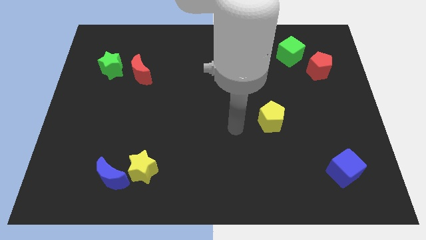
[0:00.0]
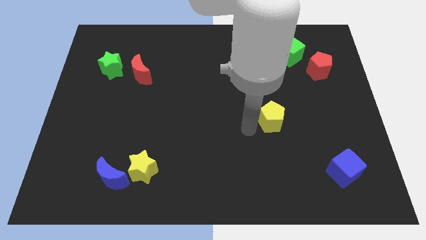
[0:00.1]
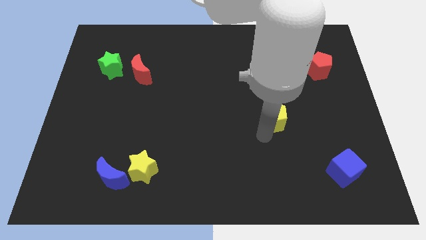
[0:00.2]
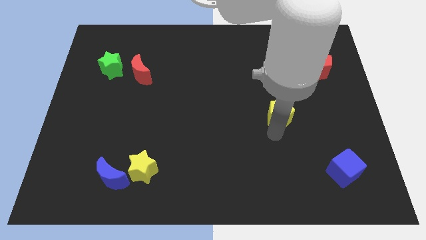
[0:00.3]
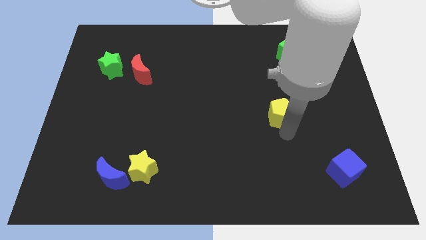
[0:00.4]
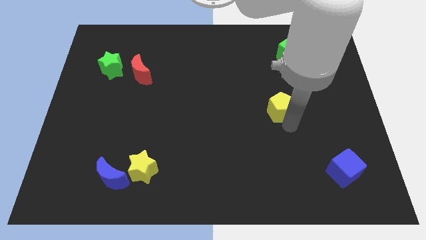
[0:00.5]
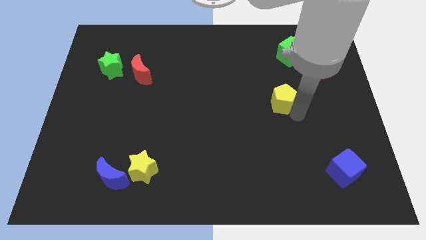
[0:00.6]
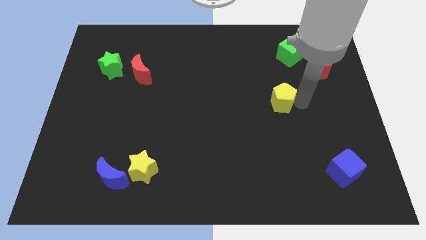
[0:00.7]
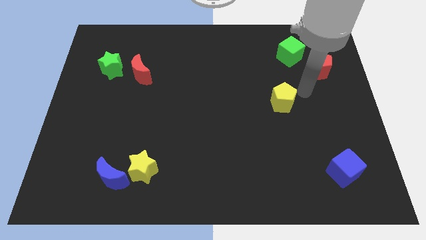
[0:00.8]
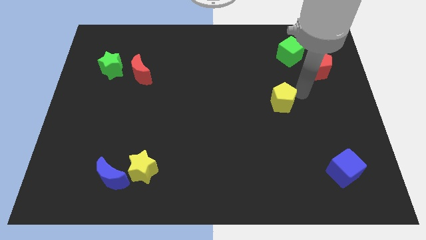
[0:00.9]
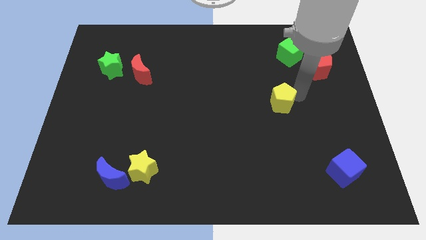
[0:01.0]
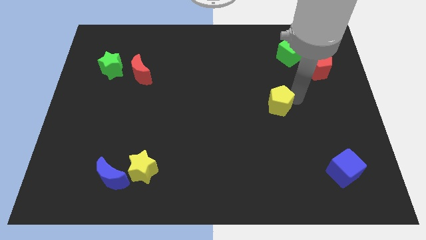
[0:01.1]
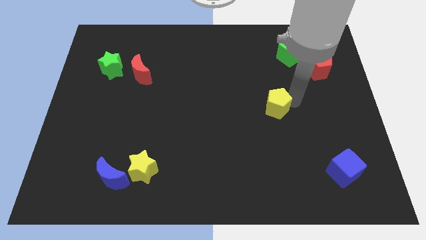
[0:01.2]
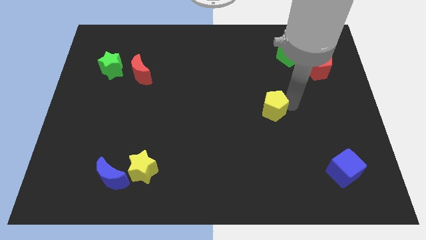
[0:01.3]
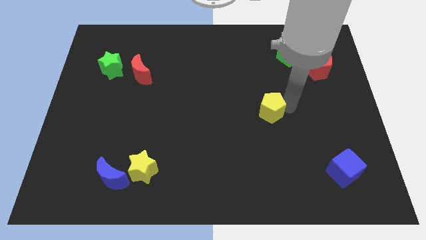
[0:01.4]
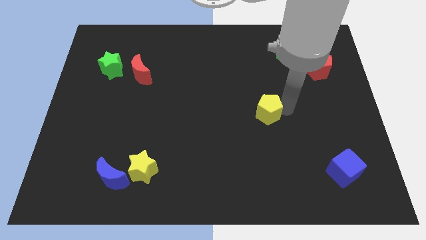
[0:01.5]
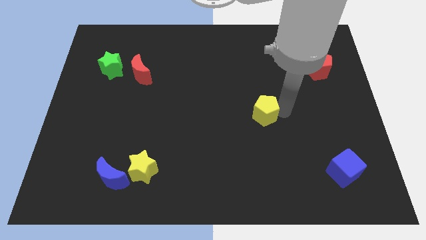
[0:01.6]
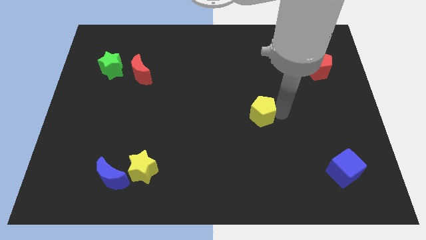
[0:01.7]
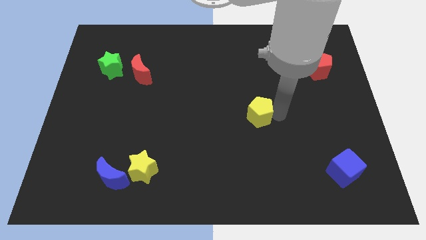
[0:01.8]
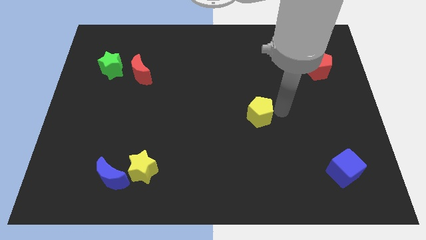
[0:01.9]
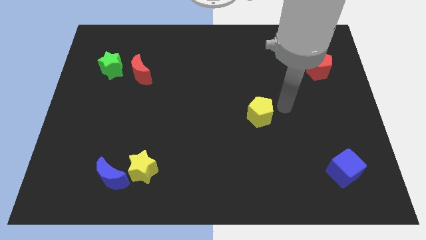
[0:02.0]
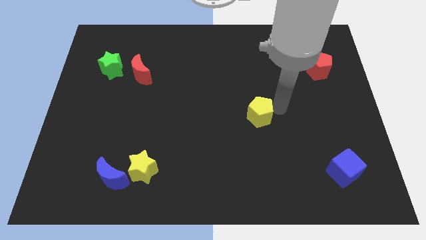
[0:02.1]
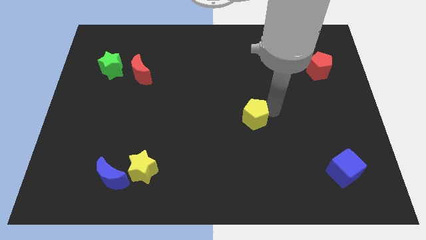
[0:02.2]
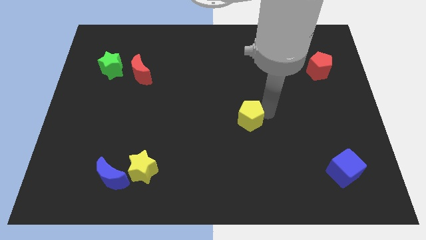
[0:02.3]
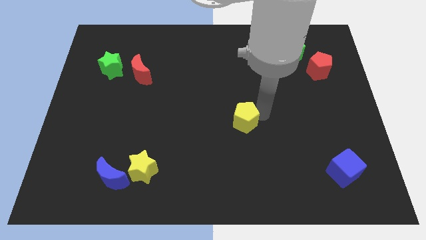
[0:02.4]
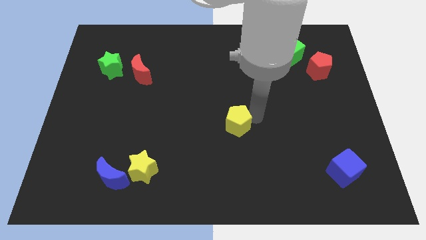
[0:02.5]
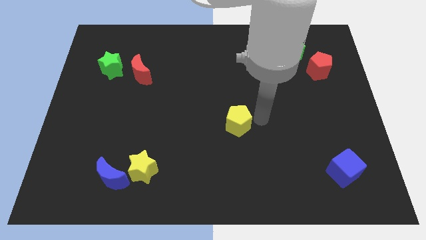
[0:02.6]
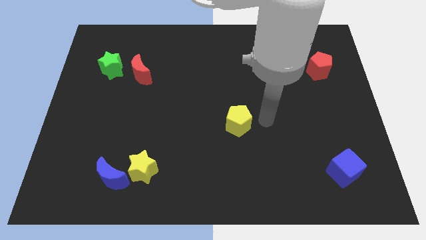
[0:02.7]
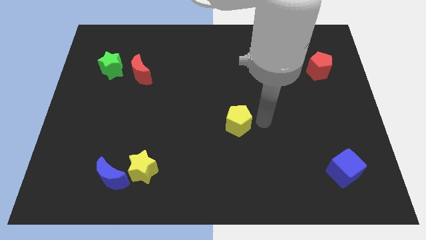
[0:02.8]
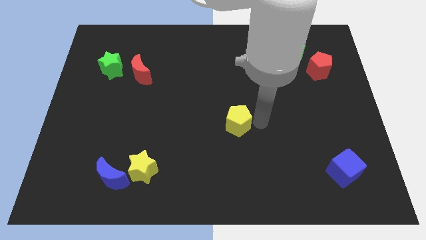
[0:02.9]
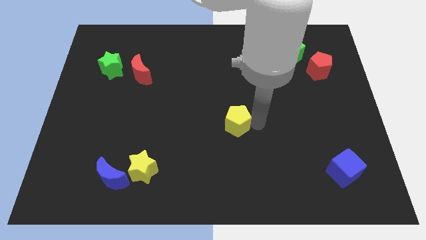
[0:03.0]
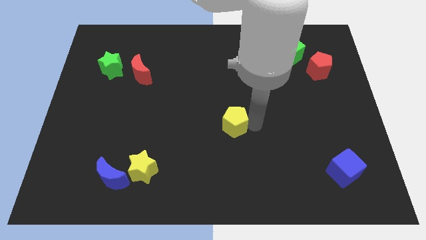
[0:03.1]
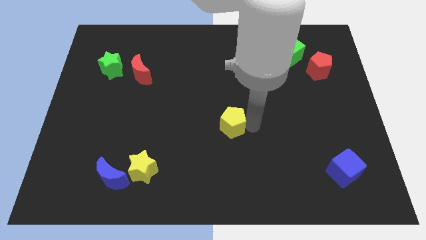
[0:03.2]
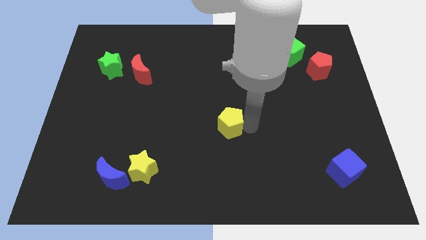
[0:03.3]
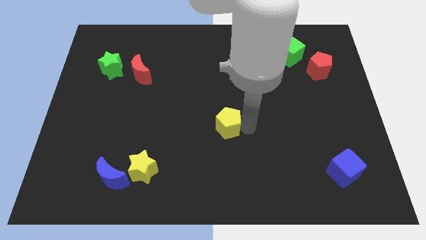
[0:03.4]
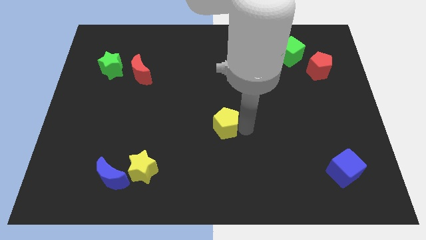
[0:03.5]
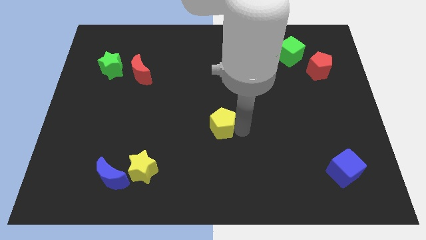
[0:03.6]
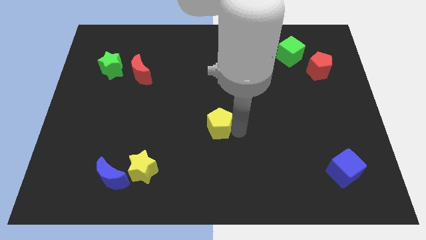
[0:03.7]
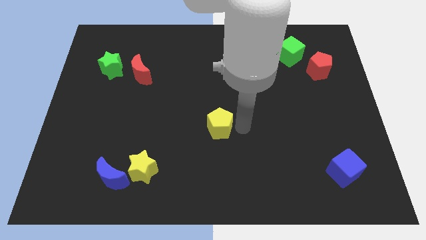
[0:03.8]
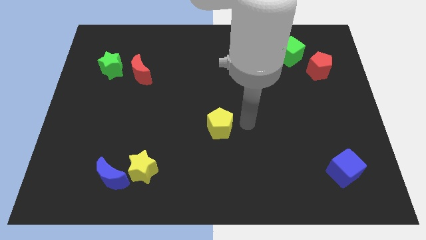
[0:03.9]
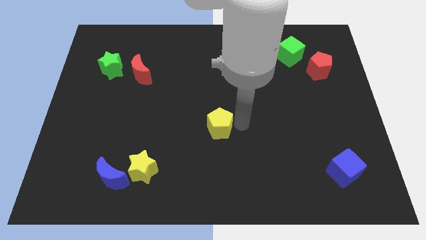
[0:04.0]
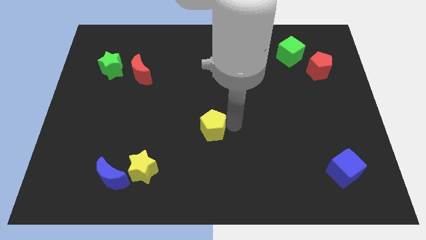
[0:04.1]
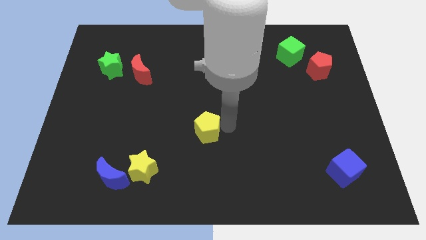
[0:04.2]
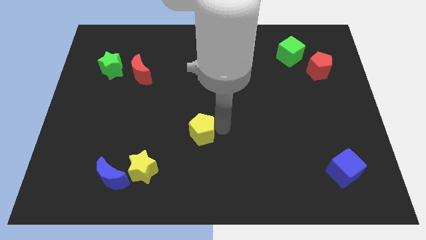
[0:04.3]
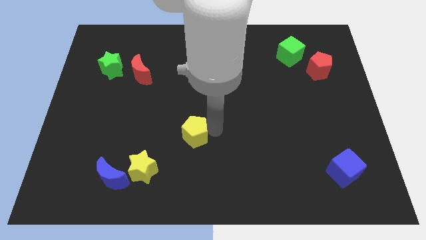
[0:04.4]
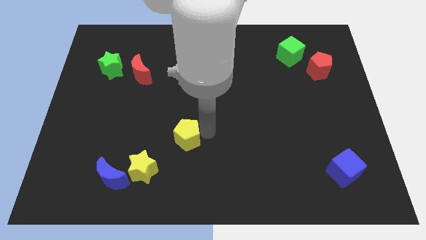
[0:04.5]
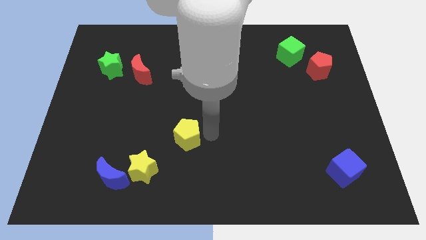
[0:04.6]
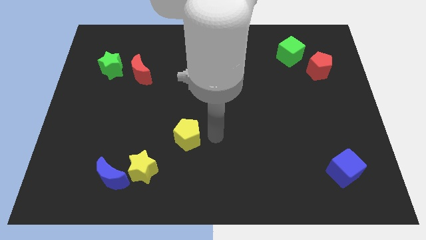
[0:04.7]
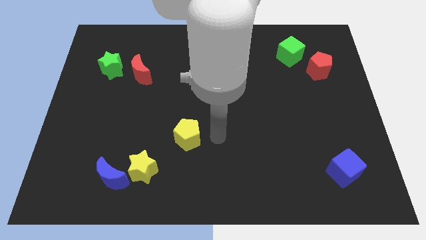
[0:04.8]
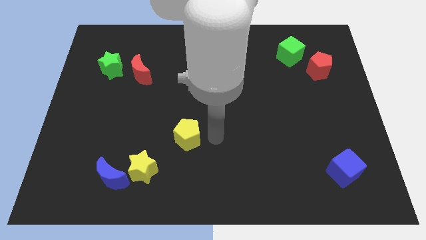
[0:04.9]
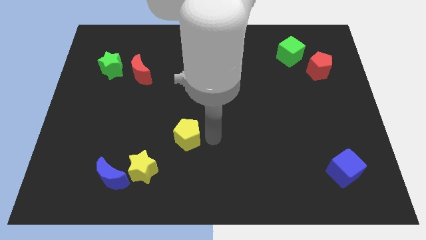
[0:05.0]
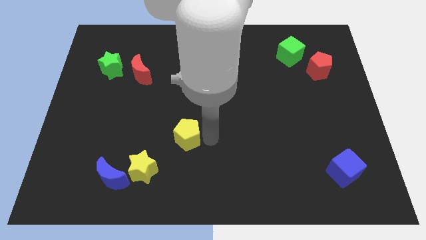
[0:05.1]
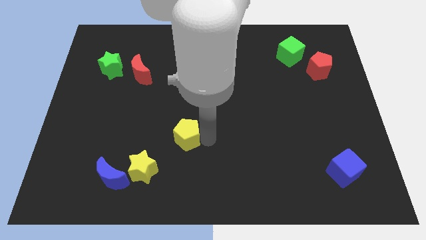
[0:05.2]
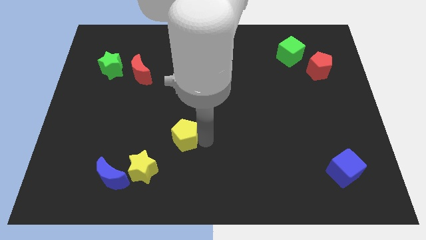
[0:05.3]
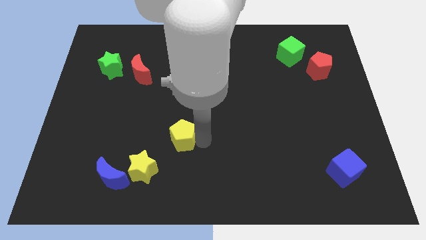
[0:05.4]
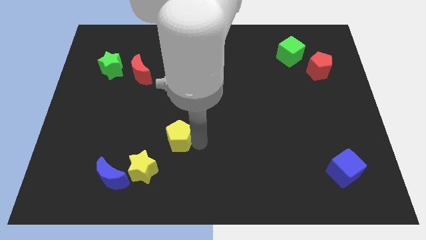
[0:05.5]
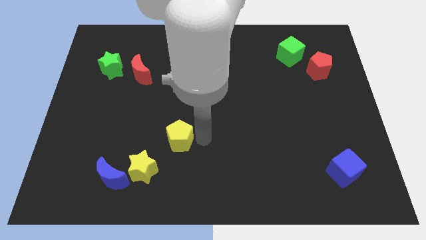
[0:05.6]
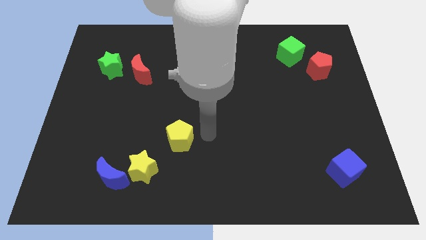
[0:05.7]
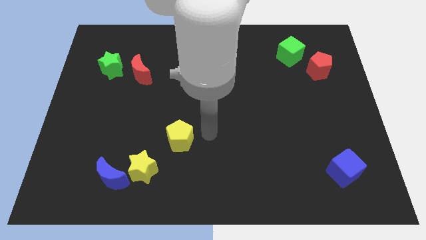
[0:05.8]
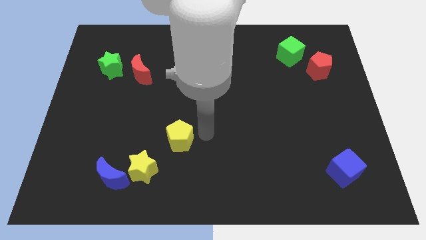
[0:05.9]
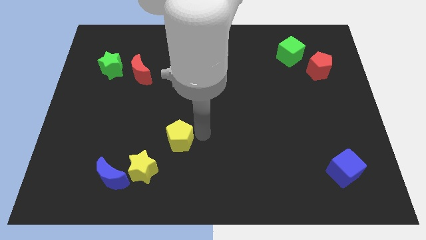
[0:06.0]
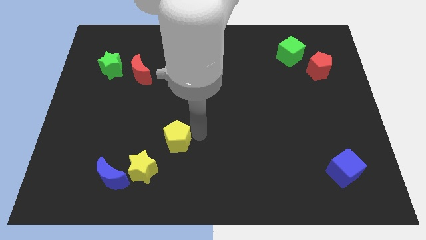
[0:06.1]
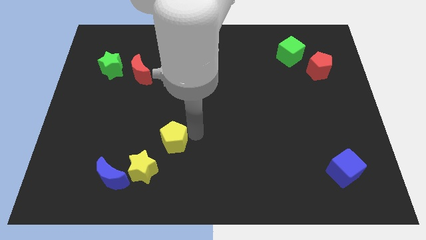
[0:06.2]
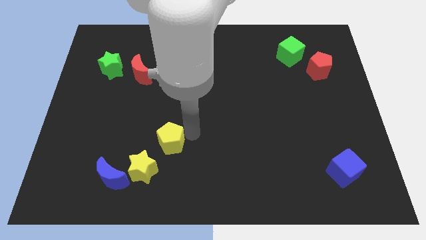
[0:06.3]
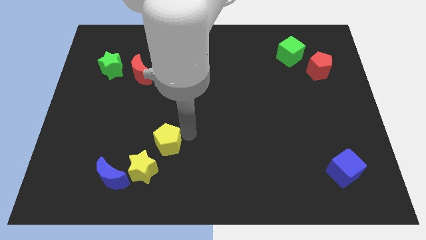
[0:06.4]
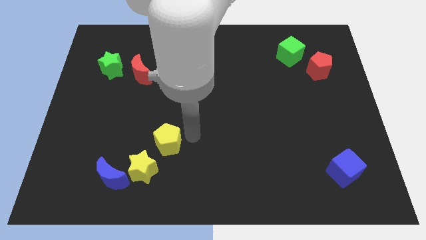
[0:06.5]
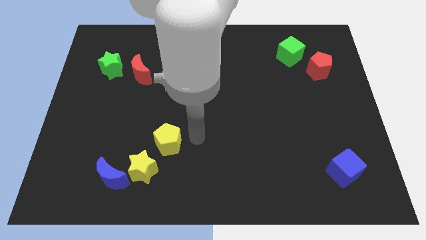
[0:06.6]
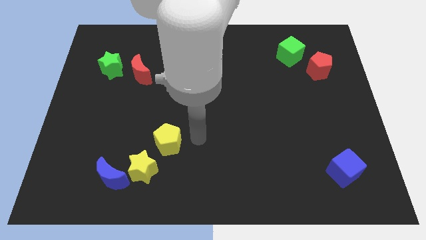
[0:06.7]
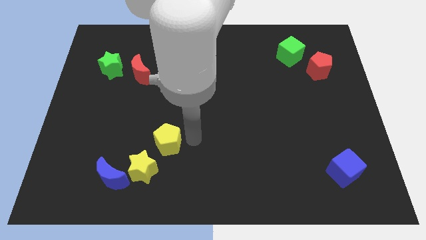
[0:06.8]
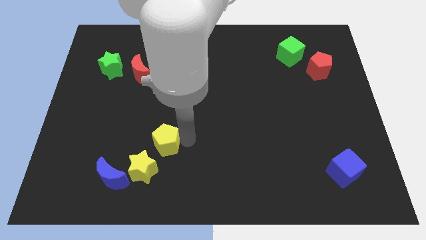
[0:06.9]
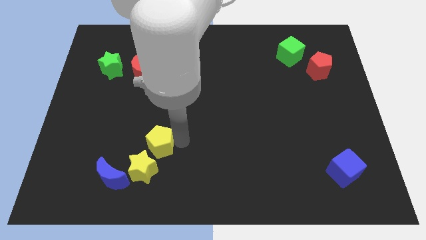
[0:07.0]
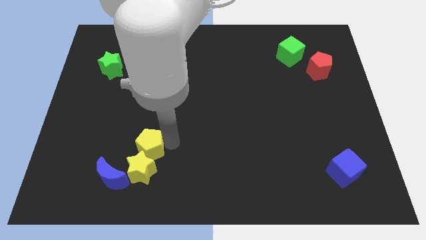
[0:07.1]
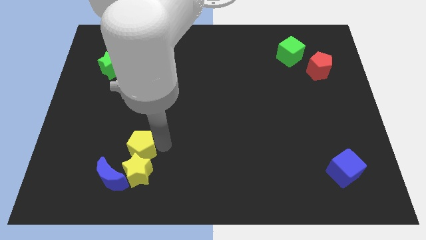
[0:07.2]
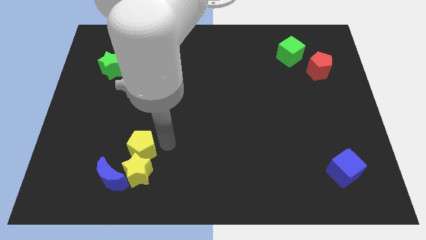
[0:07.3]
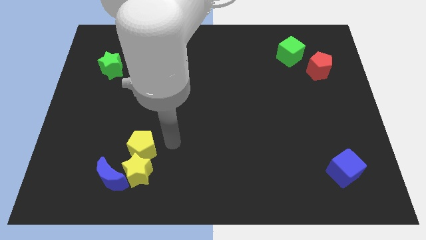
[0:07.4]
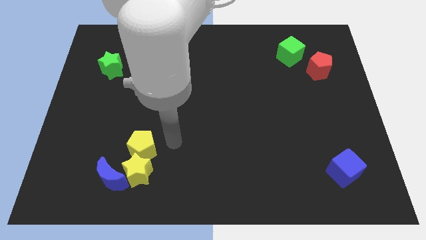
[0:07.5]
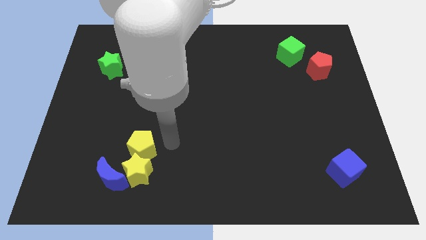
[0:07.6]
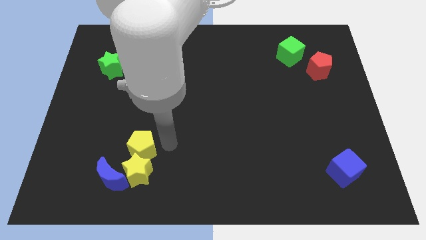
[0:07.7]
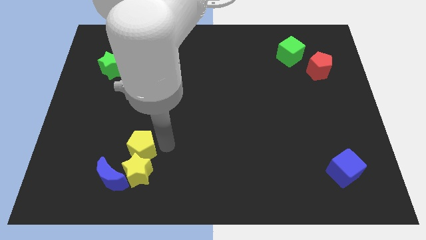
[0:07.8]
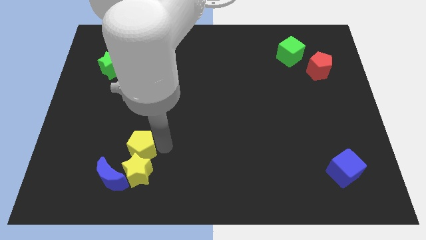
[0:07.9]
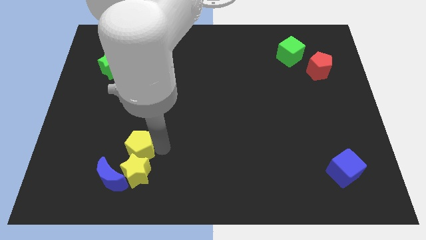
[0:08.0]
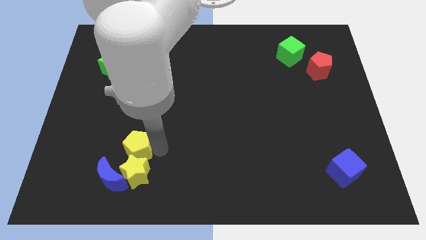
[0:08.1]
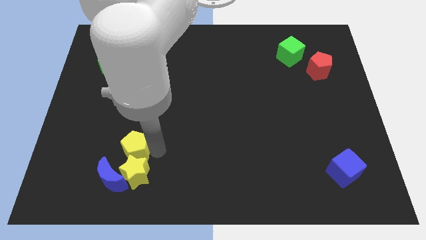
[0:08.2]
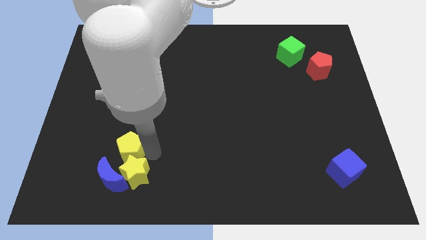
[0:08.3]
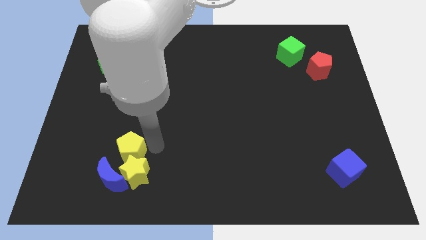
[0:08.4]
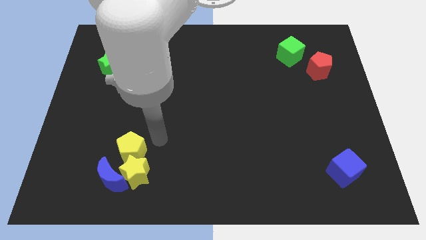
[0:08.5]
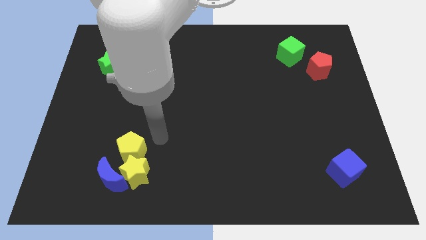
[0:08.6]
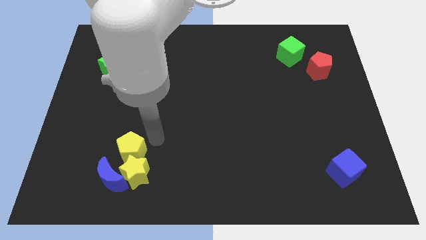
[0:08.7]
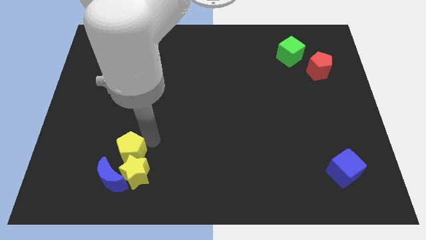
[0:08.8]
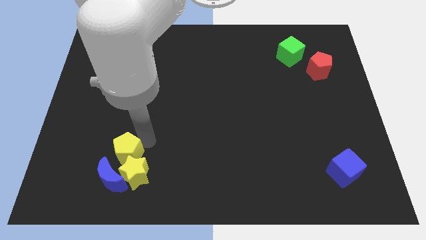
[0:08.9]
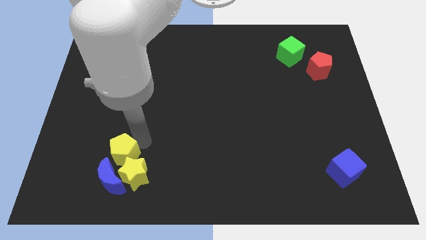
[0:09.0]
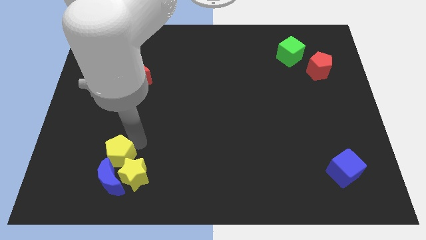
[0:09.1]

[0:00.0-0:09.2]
slide the yellow pentagon to the left of the yellow star
